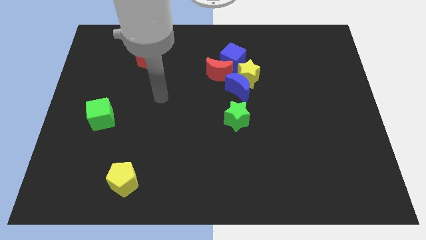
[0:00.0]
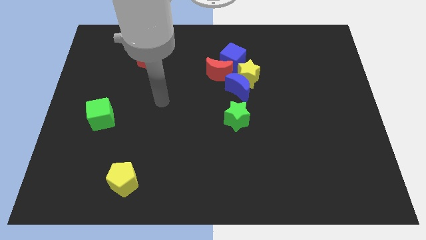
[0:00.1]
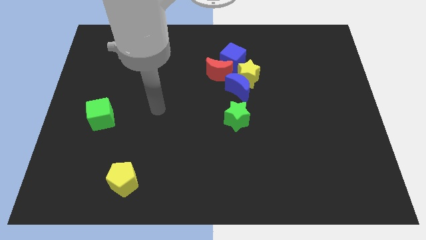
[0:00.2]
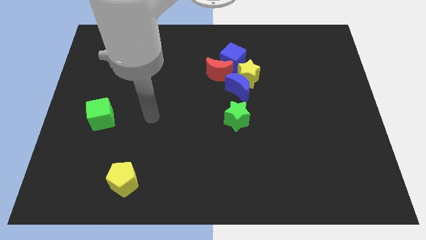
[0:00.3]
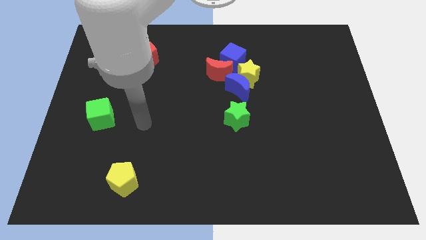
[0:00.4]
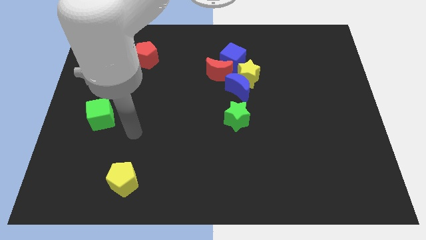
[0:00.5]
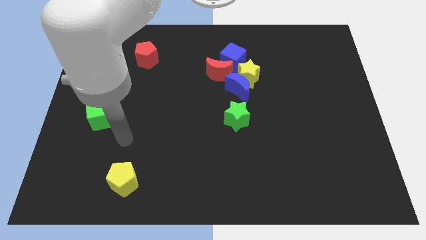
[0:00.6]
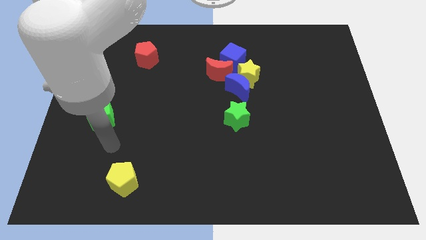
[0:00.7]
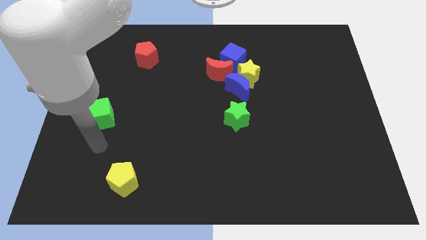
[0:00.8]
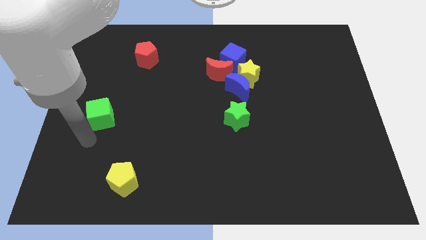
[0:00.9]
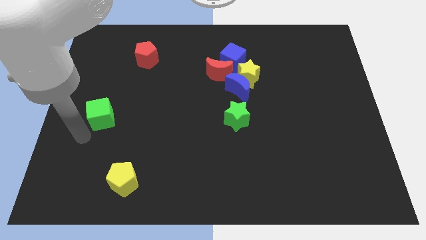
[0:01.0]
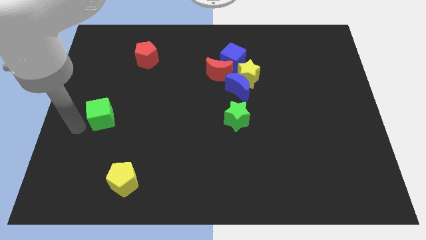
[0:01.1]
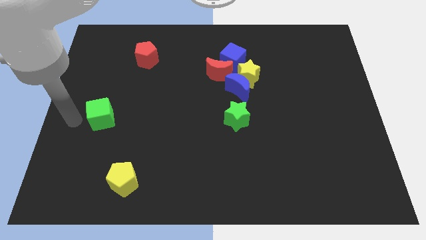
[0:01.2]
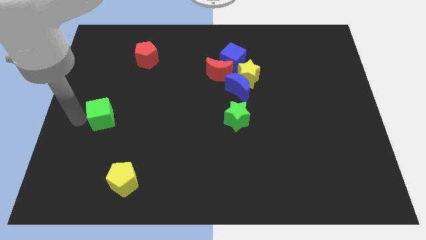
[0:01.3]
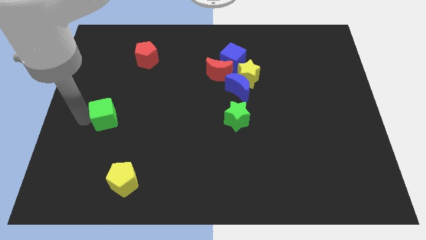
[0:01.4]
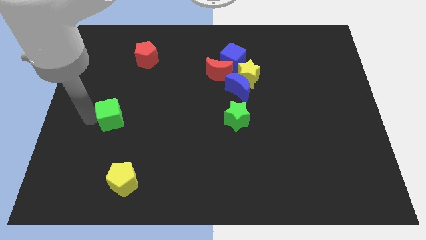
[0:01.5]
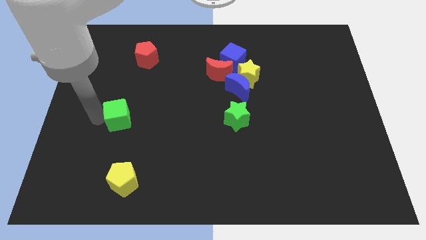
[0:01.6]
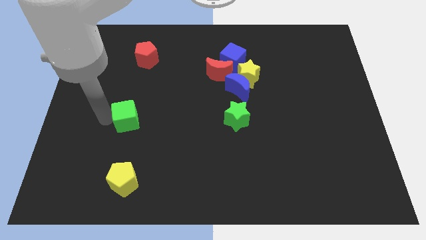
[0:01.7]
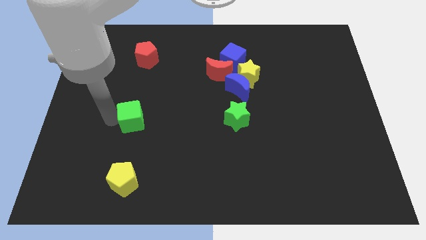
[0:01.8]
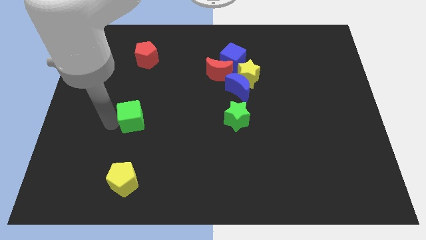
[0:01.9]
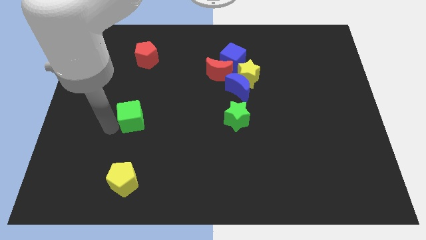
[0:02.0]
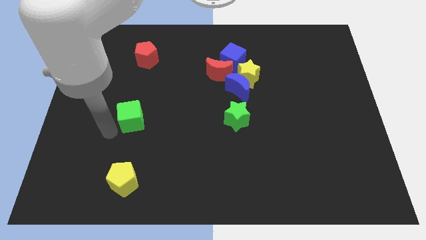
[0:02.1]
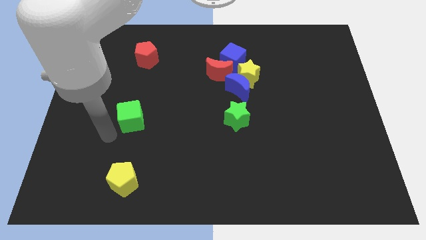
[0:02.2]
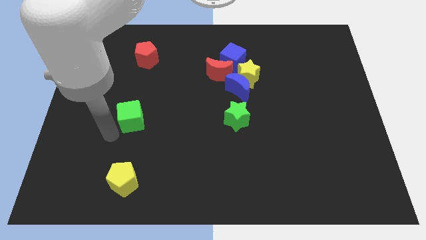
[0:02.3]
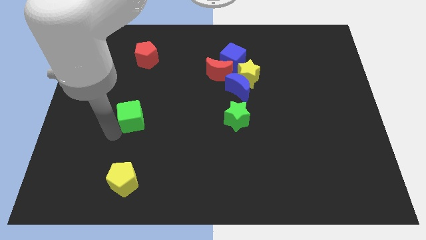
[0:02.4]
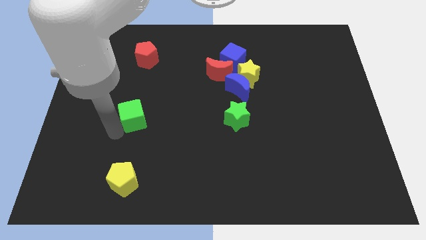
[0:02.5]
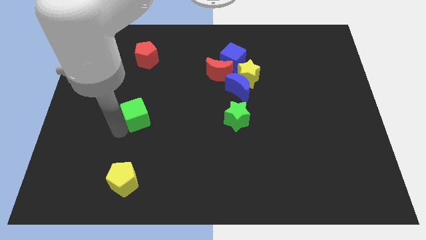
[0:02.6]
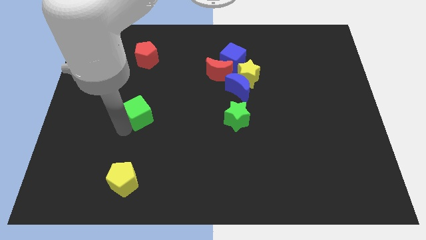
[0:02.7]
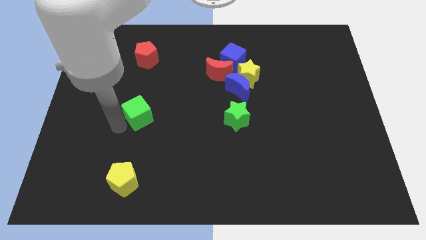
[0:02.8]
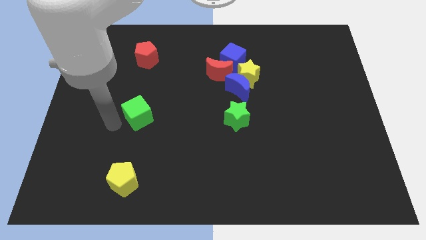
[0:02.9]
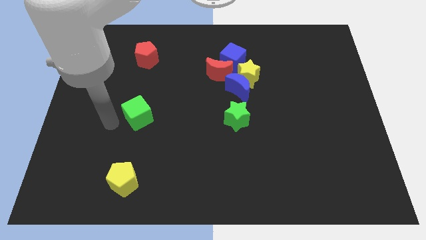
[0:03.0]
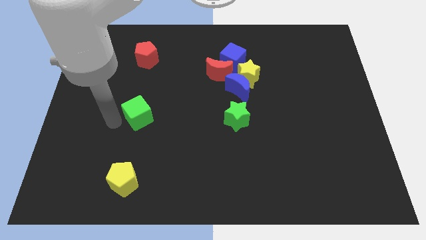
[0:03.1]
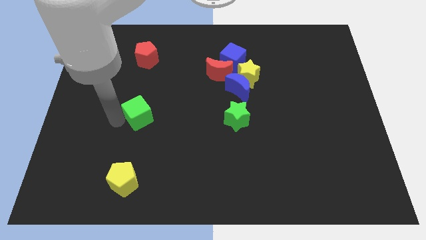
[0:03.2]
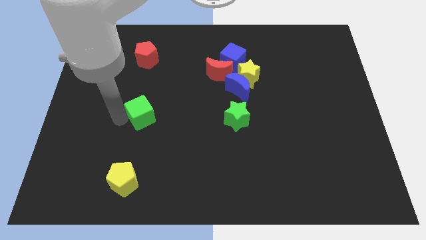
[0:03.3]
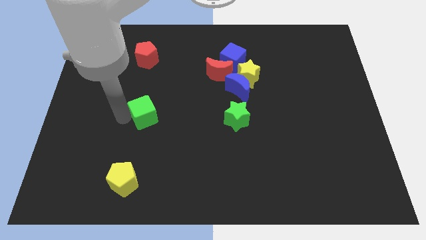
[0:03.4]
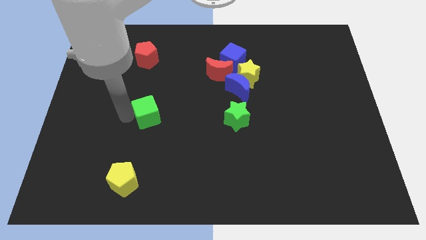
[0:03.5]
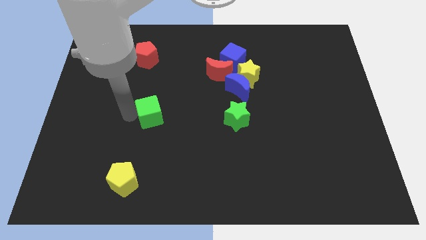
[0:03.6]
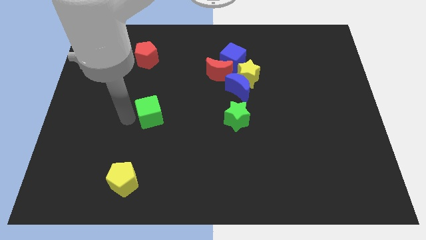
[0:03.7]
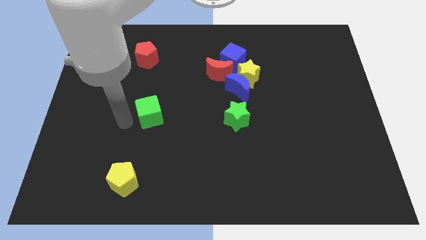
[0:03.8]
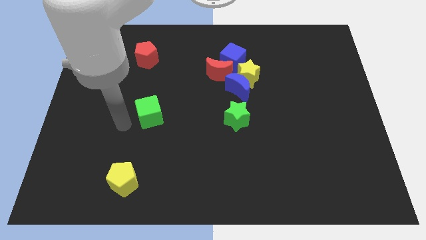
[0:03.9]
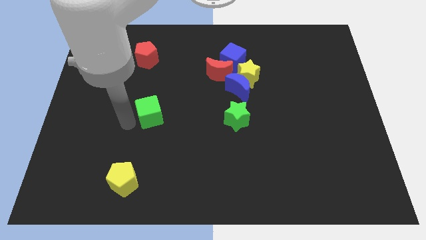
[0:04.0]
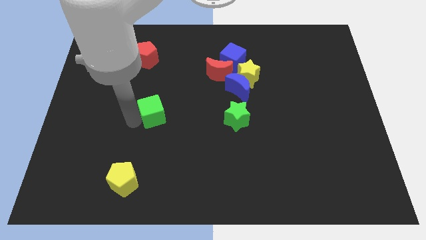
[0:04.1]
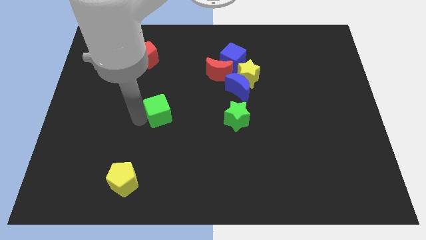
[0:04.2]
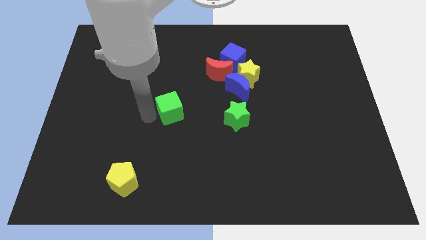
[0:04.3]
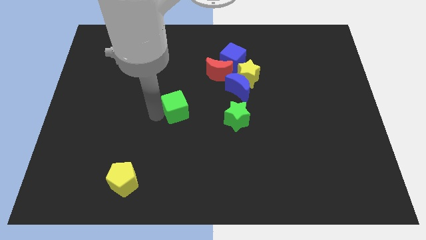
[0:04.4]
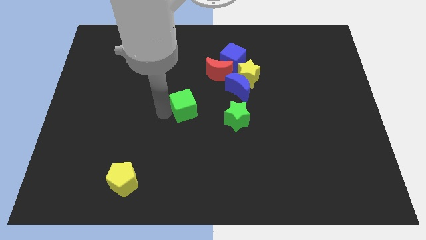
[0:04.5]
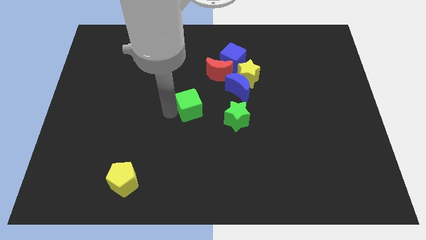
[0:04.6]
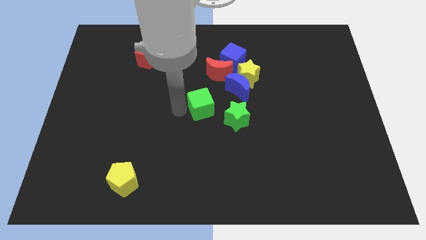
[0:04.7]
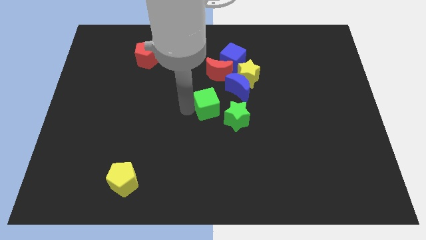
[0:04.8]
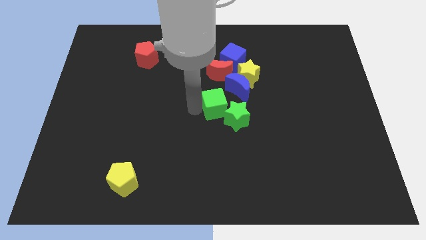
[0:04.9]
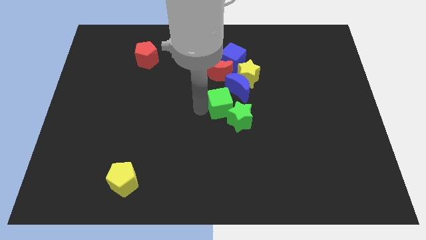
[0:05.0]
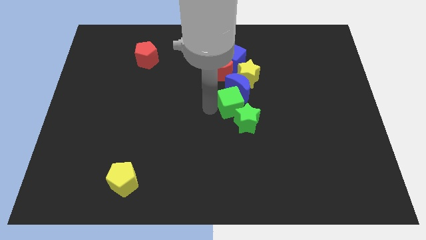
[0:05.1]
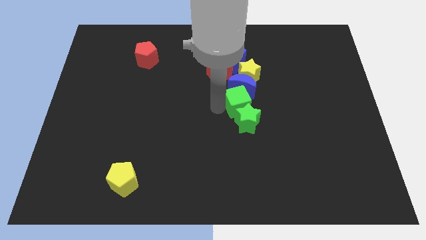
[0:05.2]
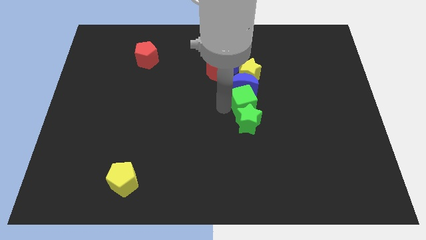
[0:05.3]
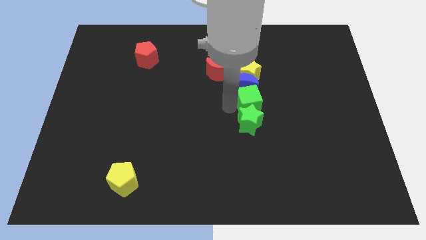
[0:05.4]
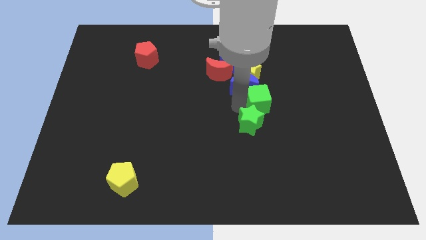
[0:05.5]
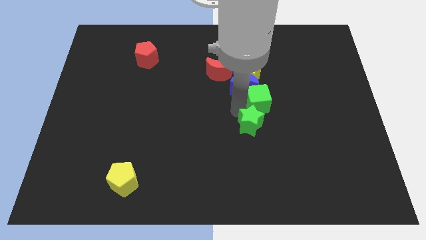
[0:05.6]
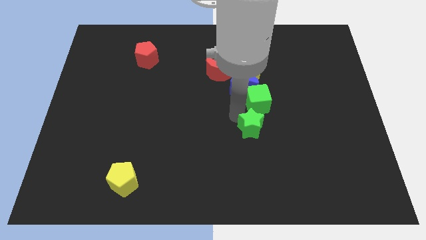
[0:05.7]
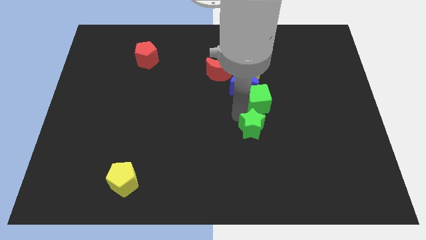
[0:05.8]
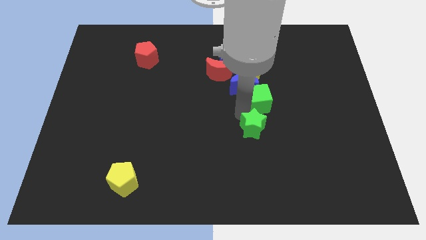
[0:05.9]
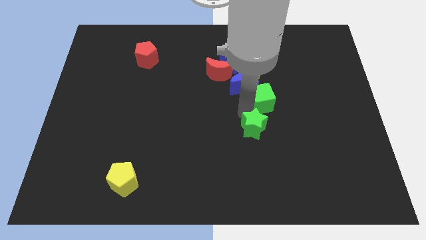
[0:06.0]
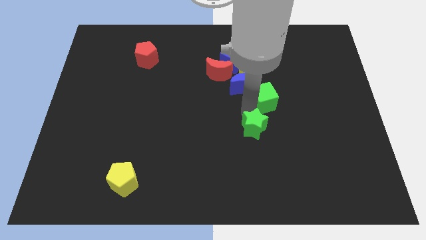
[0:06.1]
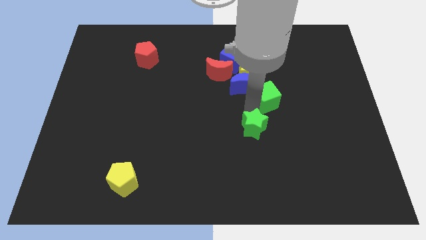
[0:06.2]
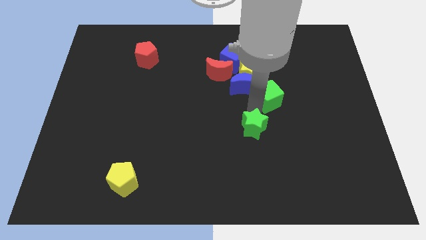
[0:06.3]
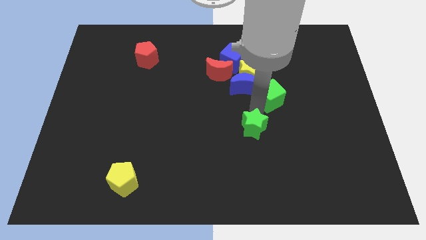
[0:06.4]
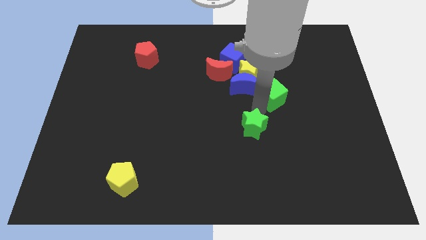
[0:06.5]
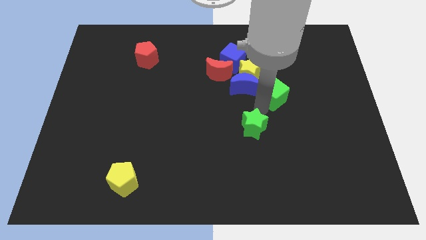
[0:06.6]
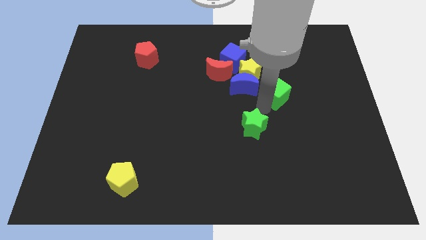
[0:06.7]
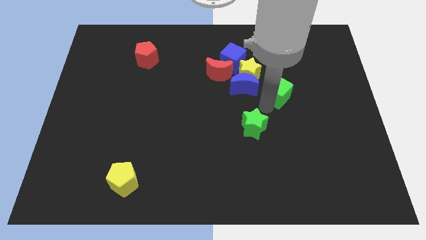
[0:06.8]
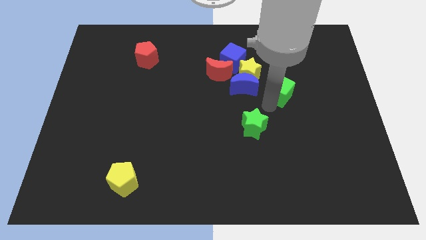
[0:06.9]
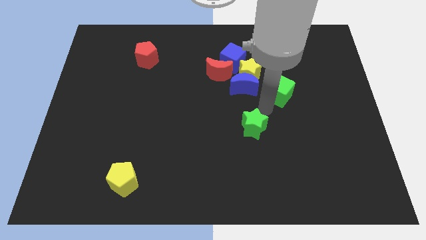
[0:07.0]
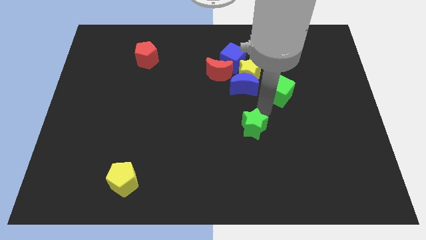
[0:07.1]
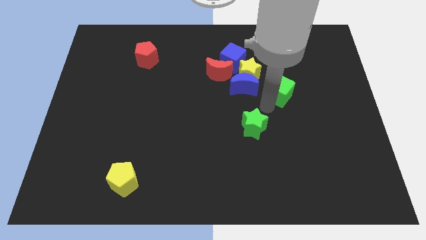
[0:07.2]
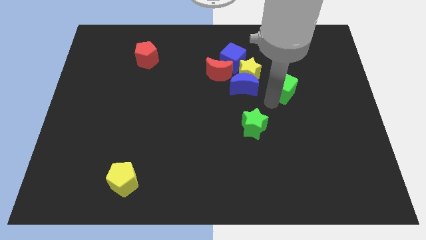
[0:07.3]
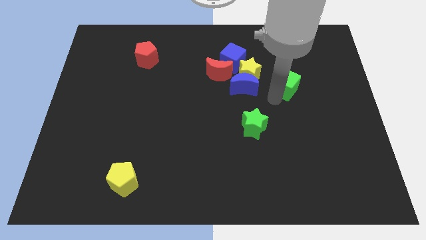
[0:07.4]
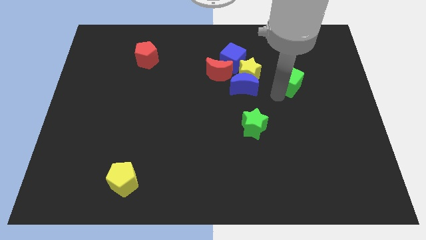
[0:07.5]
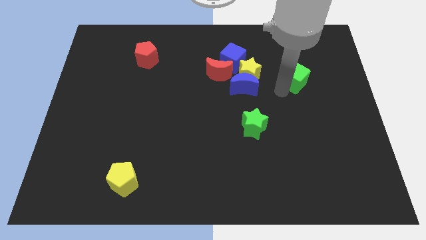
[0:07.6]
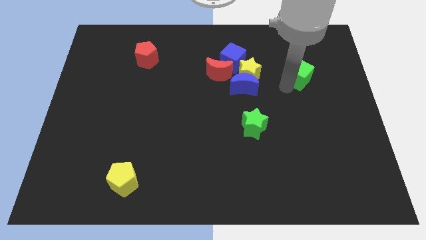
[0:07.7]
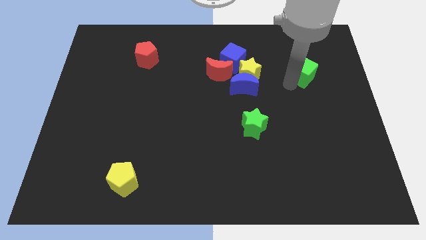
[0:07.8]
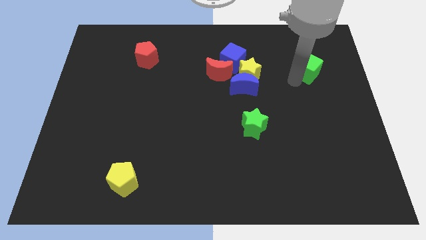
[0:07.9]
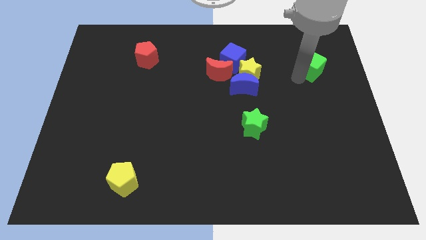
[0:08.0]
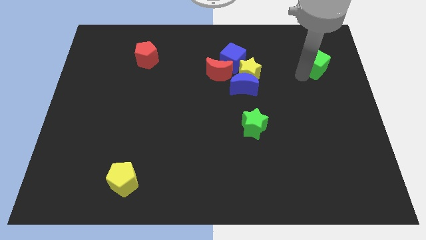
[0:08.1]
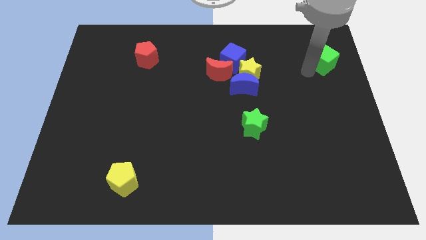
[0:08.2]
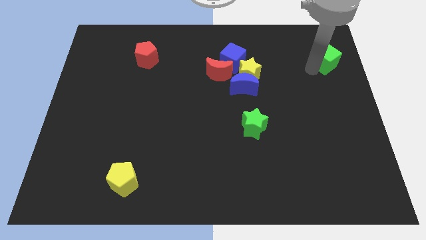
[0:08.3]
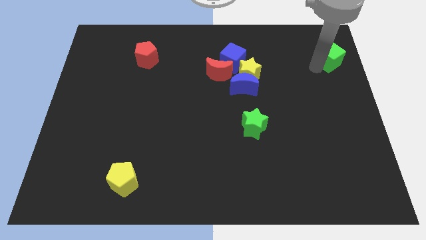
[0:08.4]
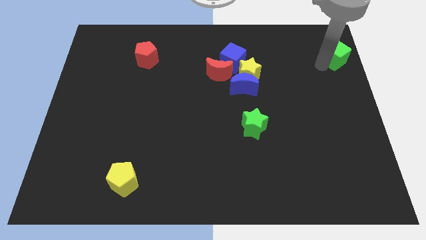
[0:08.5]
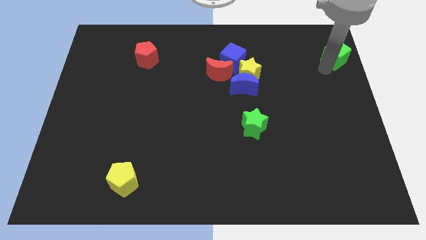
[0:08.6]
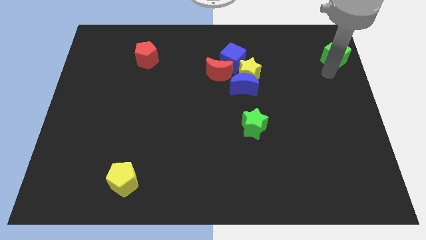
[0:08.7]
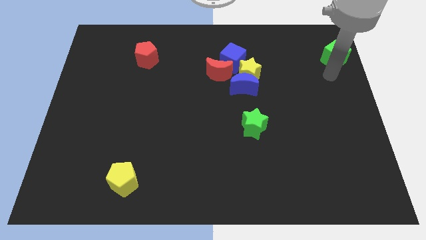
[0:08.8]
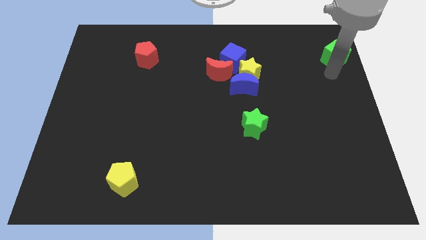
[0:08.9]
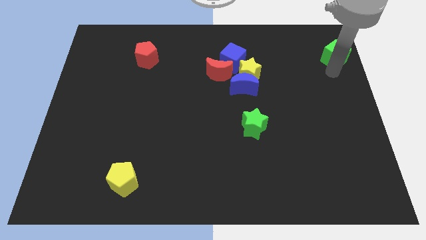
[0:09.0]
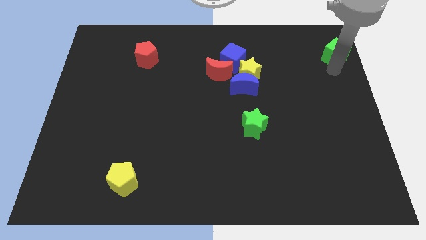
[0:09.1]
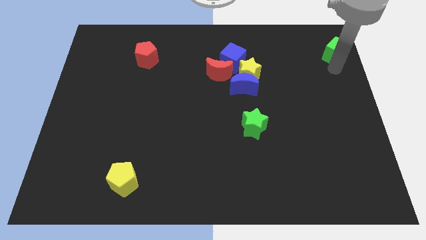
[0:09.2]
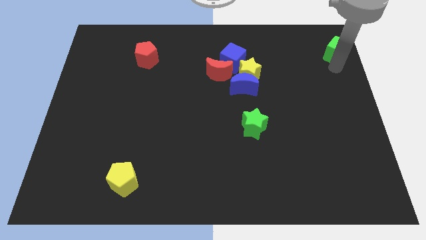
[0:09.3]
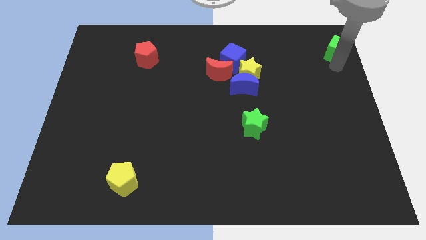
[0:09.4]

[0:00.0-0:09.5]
push the green cube to the upper right corner
